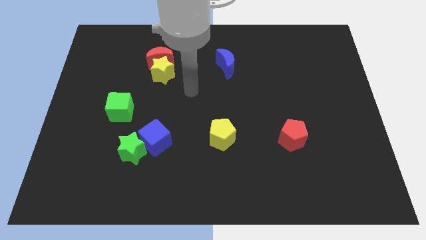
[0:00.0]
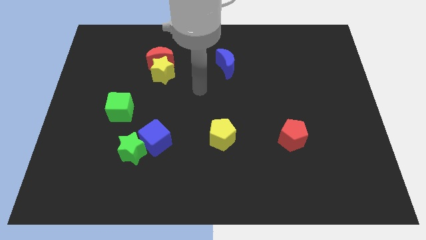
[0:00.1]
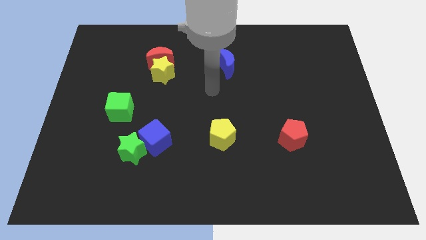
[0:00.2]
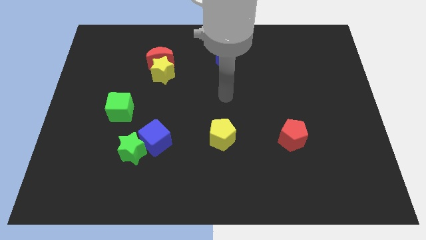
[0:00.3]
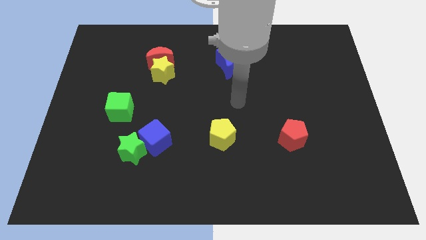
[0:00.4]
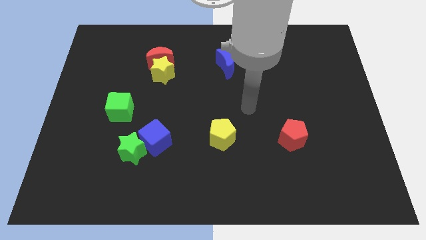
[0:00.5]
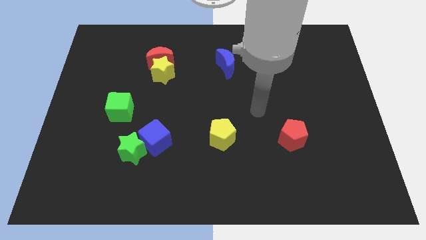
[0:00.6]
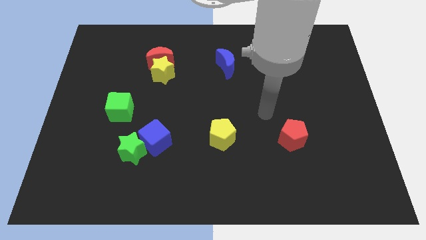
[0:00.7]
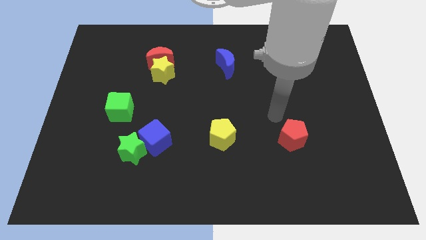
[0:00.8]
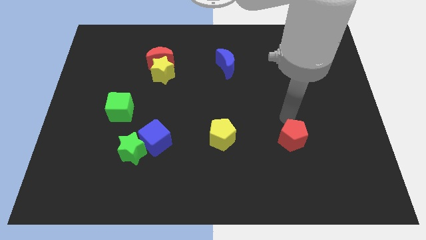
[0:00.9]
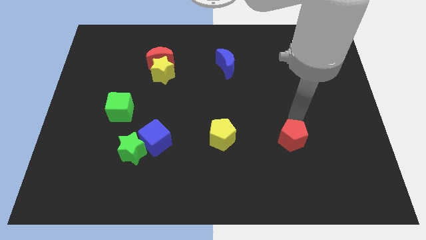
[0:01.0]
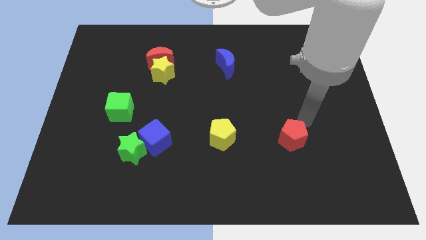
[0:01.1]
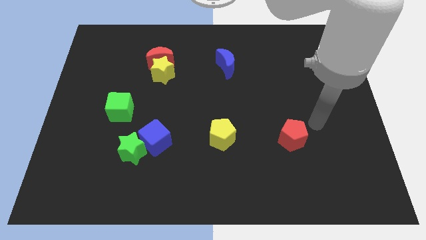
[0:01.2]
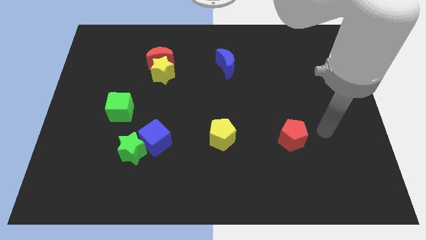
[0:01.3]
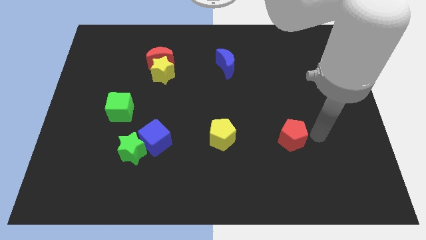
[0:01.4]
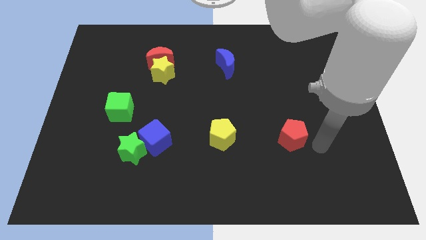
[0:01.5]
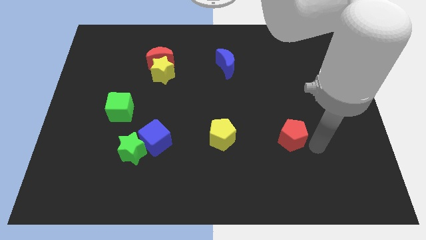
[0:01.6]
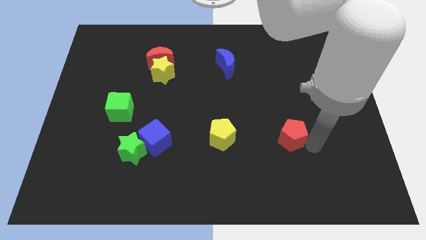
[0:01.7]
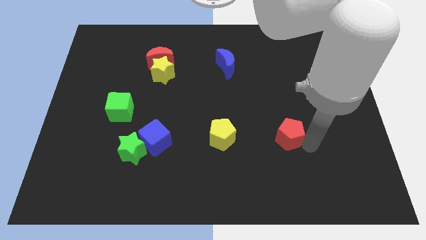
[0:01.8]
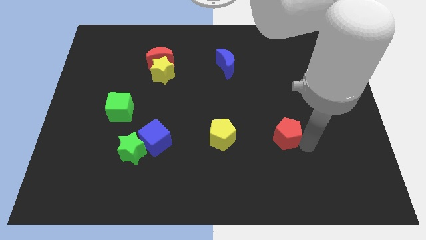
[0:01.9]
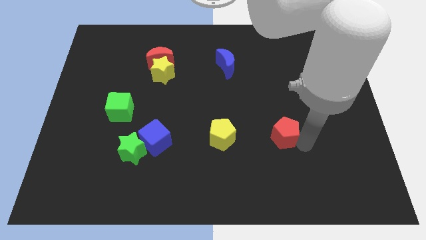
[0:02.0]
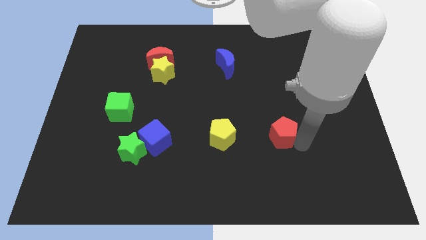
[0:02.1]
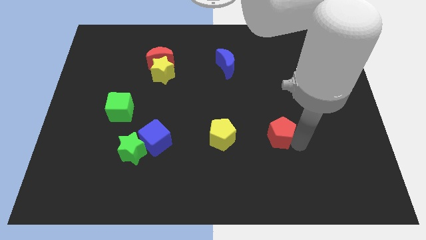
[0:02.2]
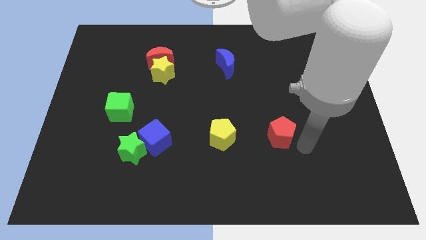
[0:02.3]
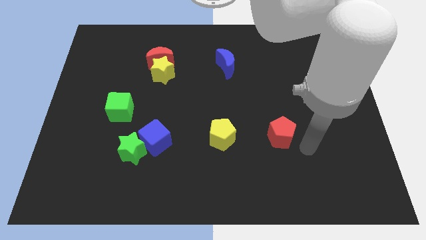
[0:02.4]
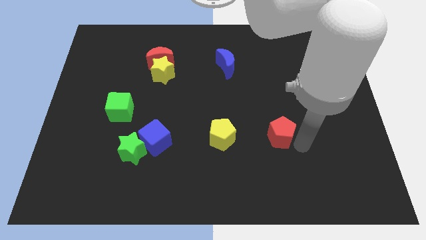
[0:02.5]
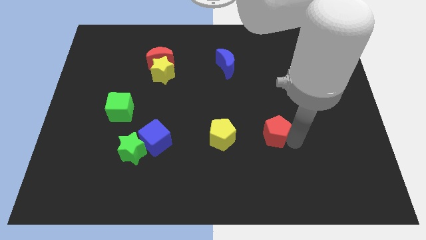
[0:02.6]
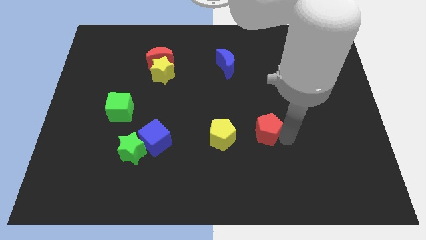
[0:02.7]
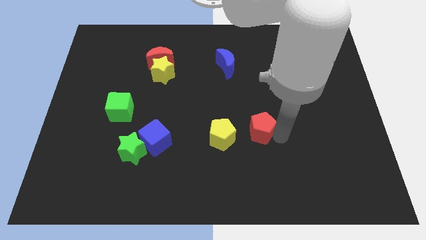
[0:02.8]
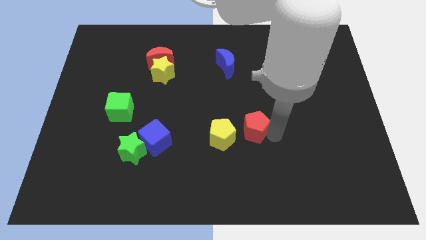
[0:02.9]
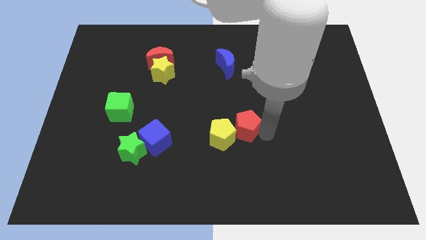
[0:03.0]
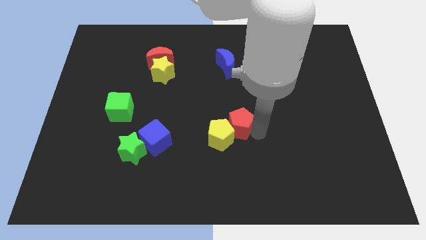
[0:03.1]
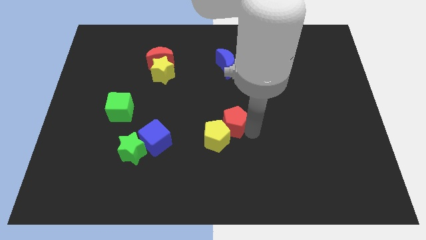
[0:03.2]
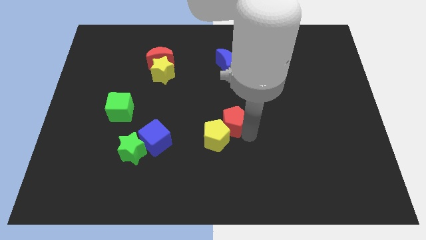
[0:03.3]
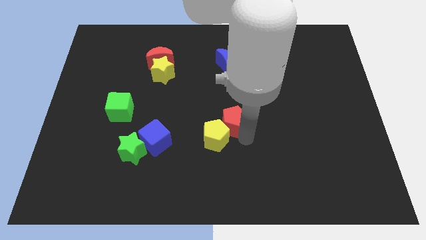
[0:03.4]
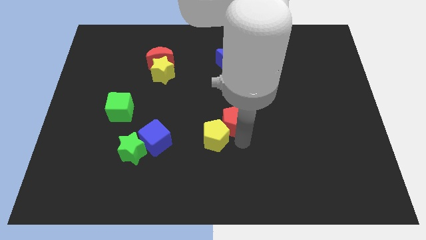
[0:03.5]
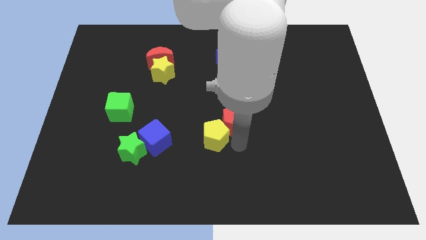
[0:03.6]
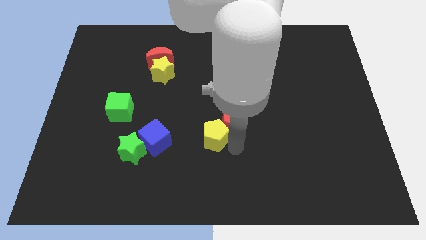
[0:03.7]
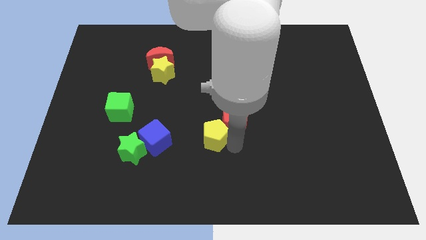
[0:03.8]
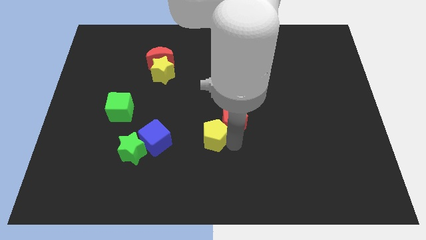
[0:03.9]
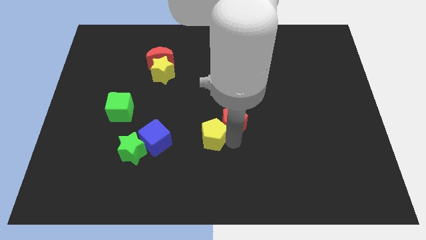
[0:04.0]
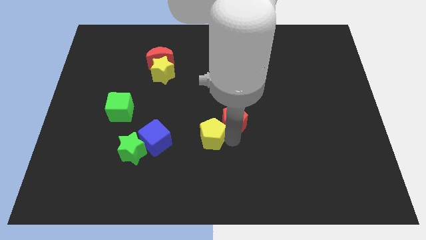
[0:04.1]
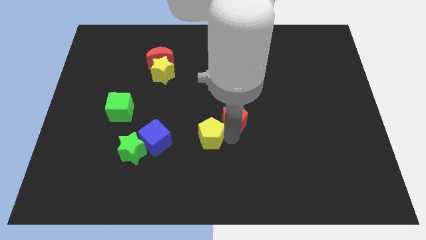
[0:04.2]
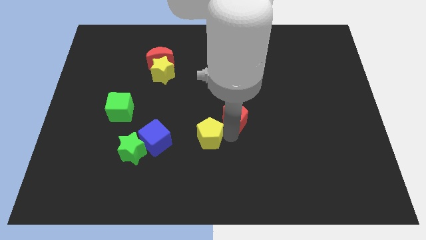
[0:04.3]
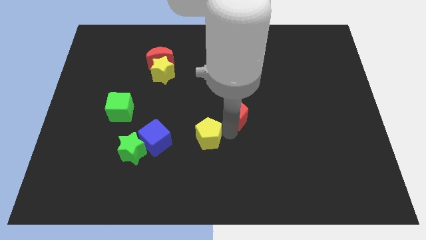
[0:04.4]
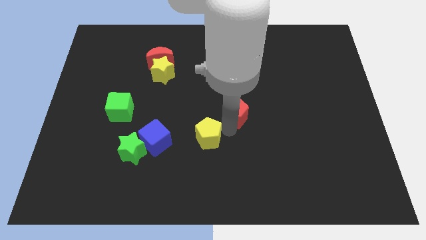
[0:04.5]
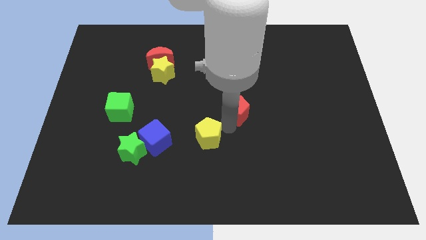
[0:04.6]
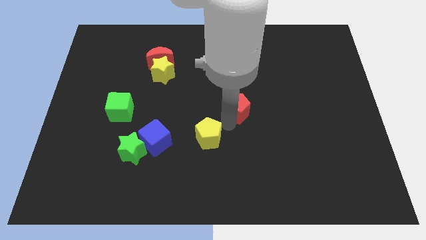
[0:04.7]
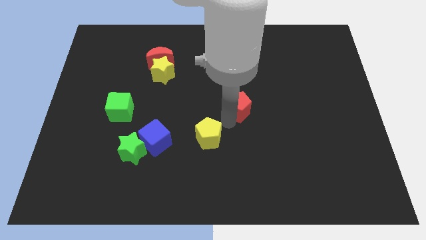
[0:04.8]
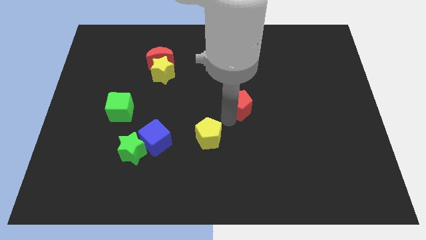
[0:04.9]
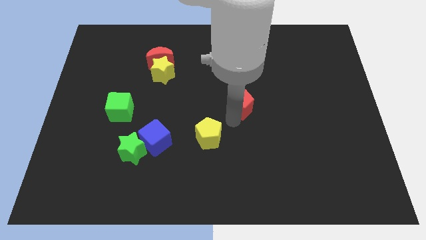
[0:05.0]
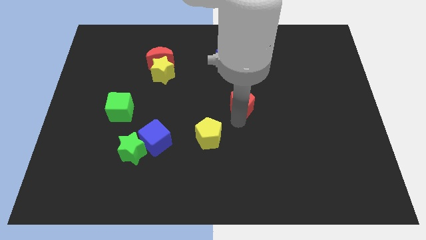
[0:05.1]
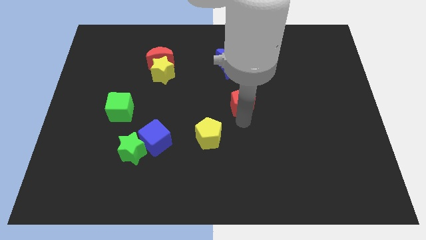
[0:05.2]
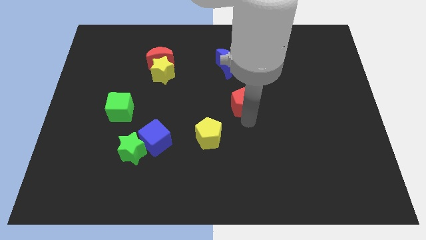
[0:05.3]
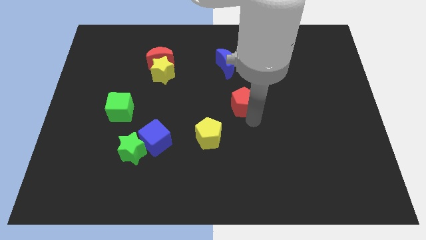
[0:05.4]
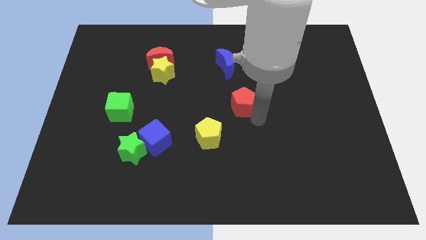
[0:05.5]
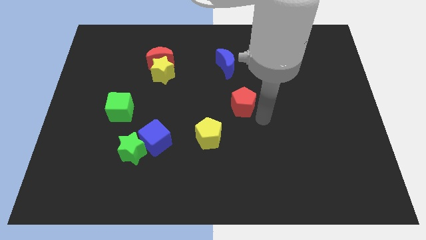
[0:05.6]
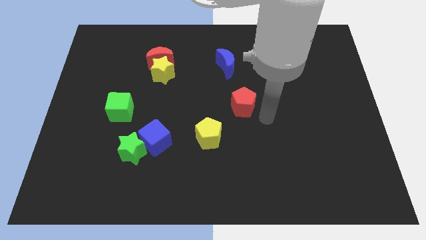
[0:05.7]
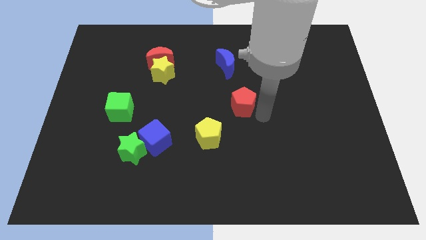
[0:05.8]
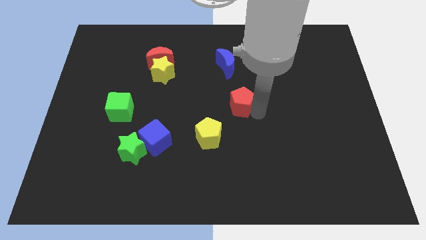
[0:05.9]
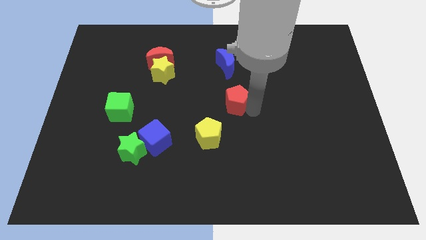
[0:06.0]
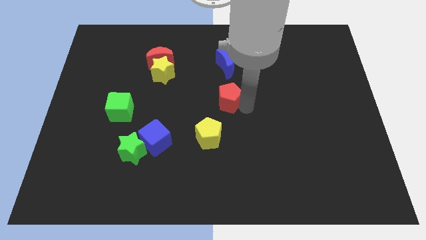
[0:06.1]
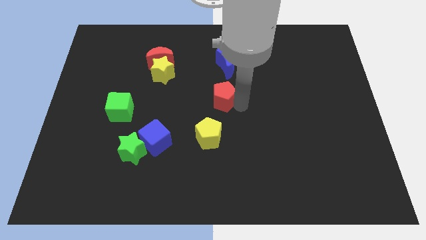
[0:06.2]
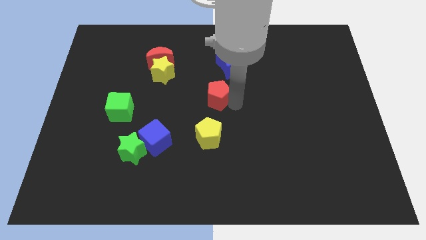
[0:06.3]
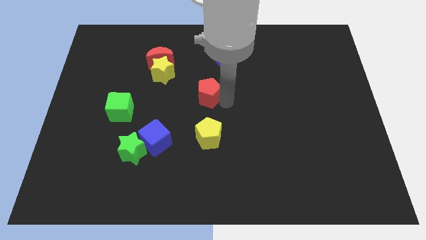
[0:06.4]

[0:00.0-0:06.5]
move the red pentagon up and left

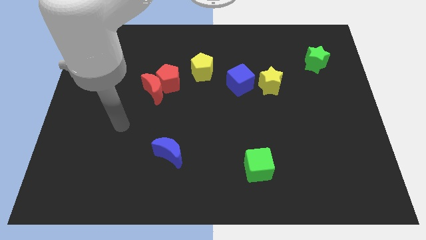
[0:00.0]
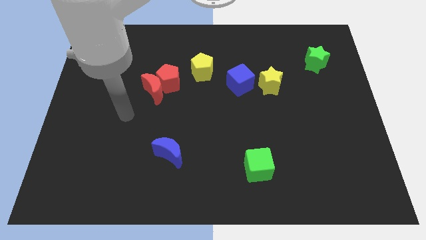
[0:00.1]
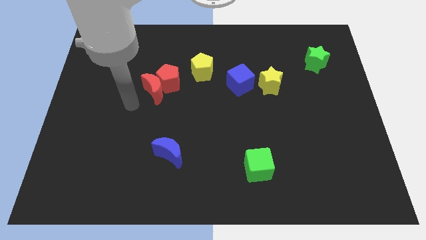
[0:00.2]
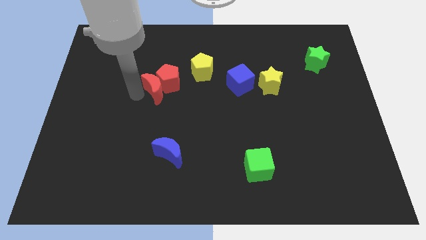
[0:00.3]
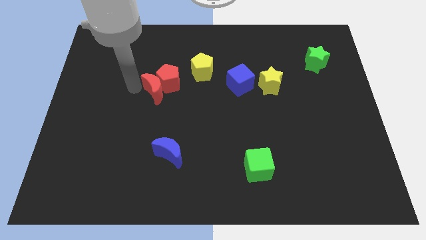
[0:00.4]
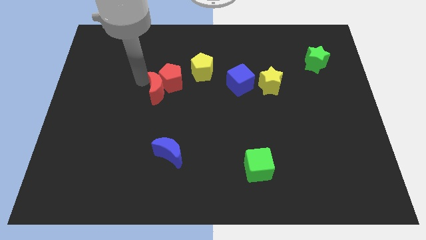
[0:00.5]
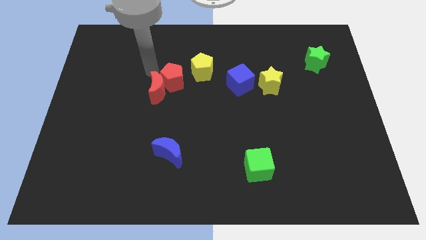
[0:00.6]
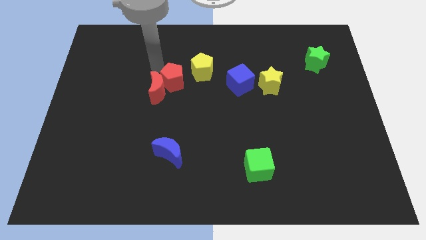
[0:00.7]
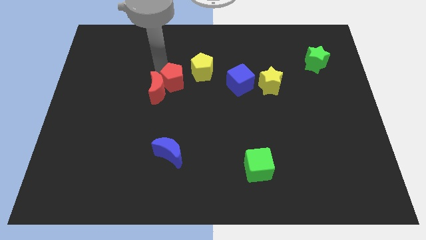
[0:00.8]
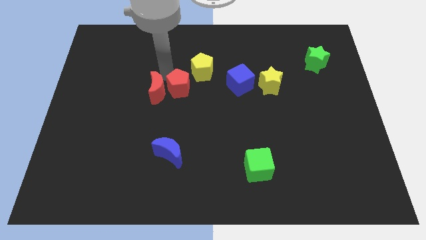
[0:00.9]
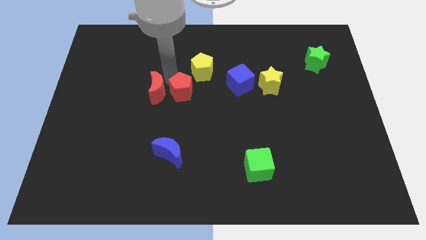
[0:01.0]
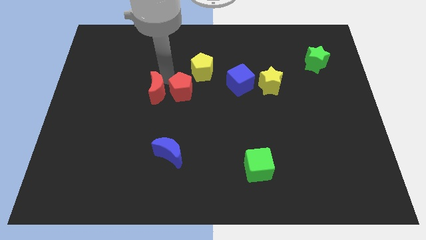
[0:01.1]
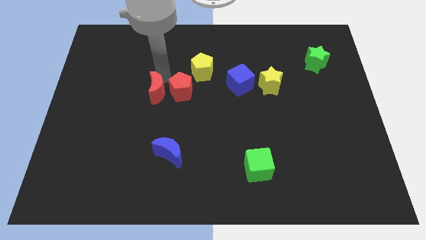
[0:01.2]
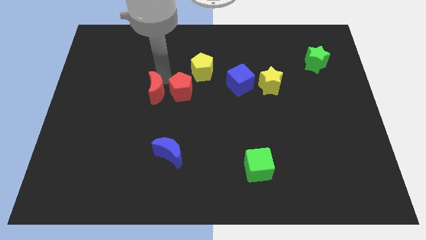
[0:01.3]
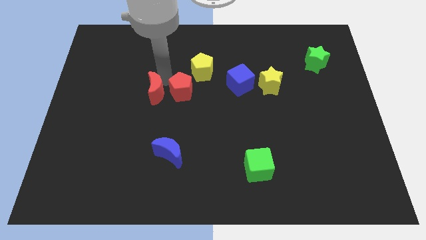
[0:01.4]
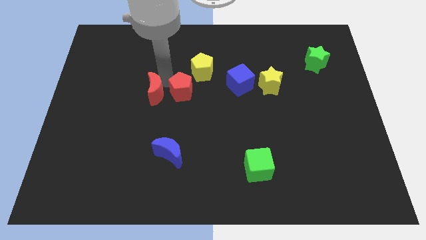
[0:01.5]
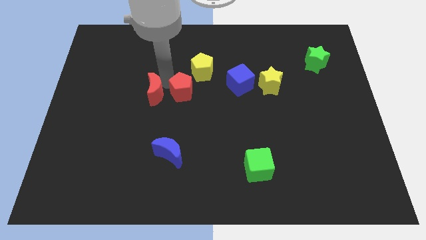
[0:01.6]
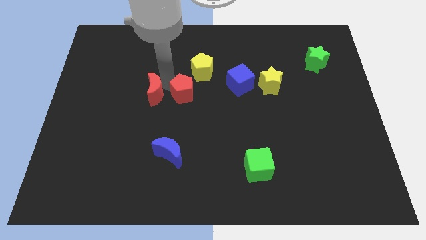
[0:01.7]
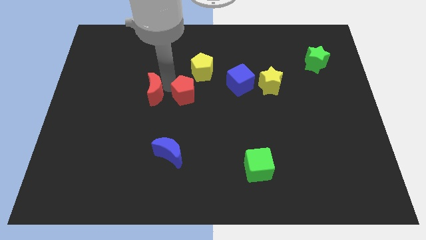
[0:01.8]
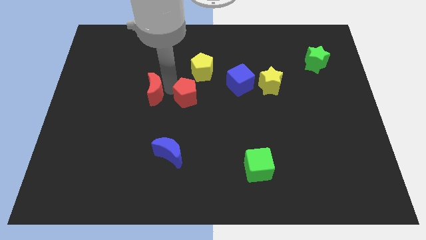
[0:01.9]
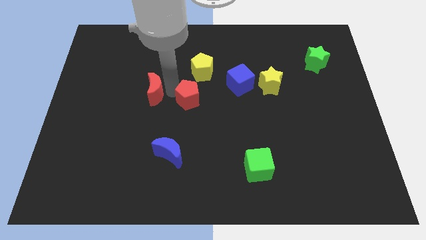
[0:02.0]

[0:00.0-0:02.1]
move the red pentagon slightly downwards and right diagonally
